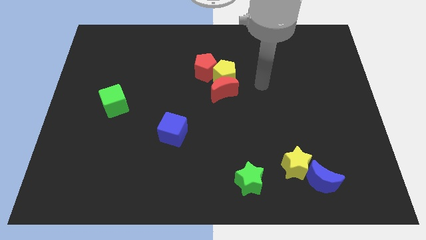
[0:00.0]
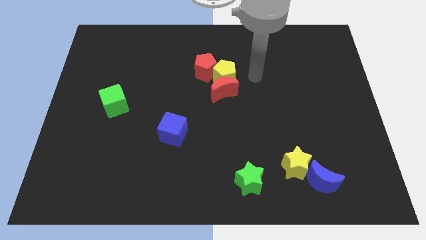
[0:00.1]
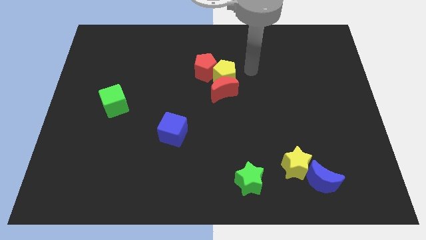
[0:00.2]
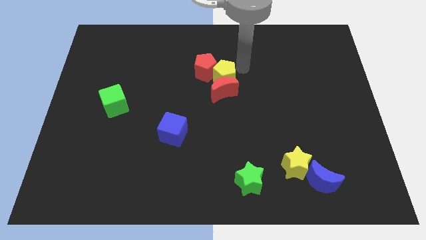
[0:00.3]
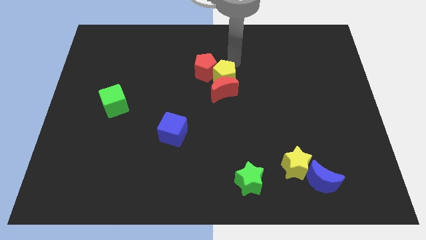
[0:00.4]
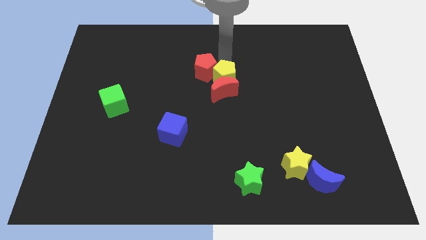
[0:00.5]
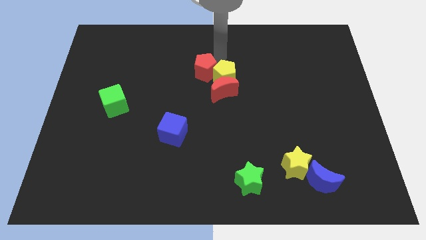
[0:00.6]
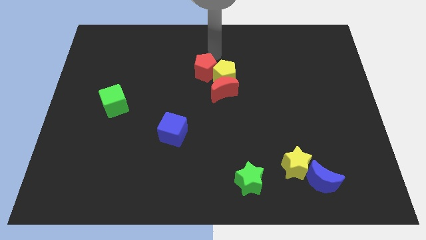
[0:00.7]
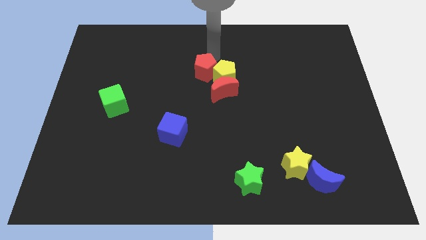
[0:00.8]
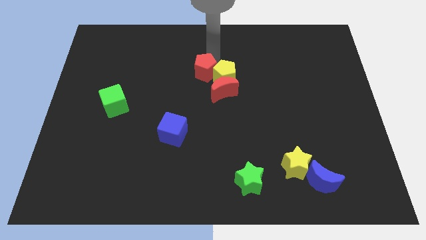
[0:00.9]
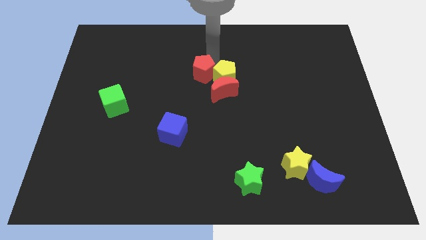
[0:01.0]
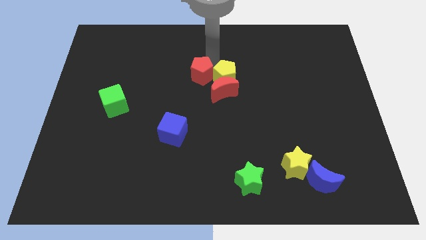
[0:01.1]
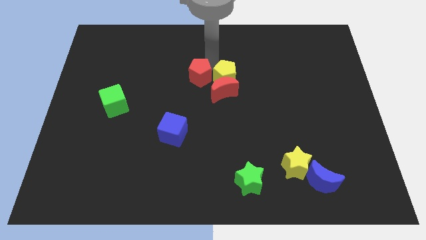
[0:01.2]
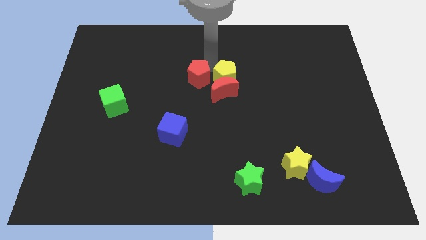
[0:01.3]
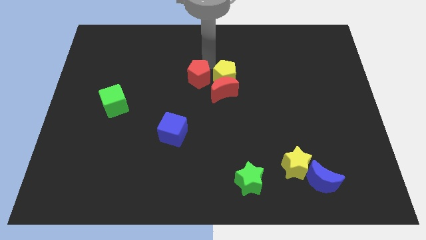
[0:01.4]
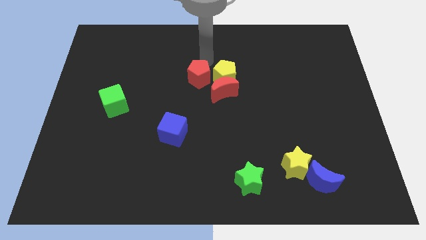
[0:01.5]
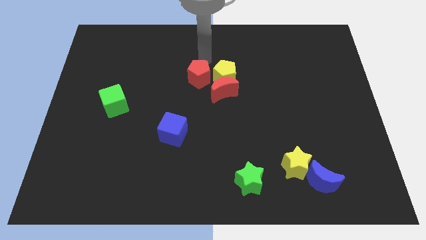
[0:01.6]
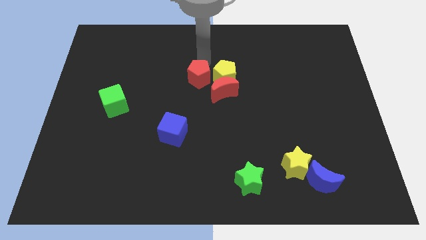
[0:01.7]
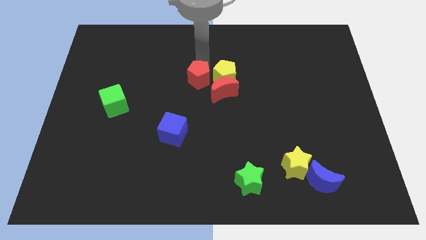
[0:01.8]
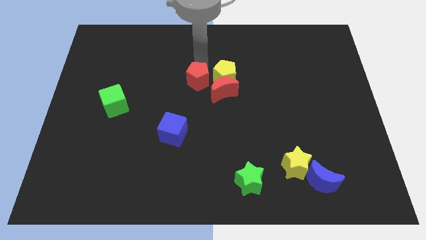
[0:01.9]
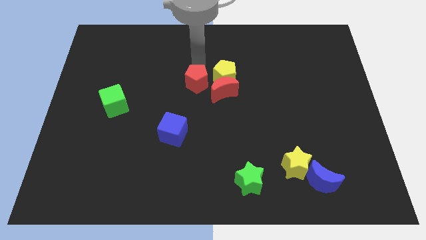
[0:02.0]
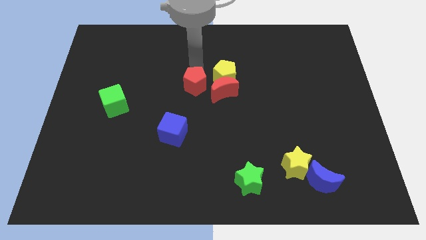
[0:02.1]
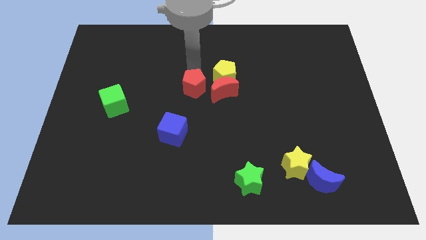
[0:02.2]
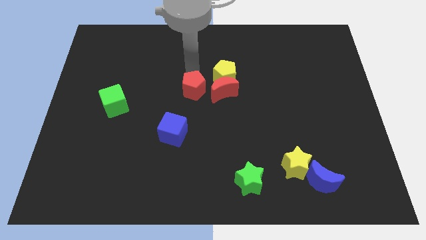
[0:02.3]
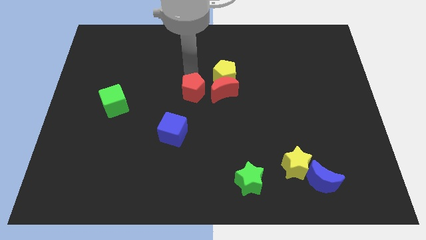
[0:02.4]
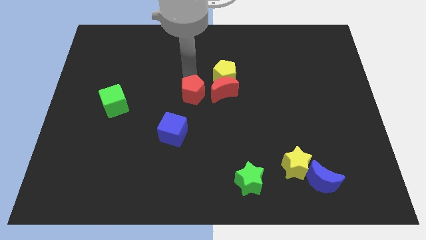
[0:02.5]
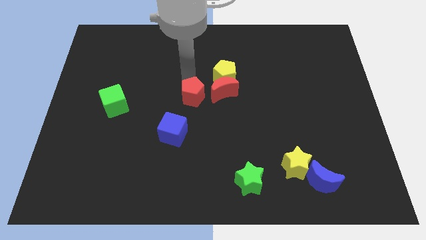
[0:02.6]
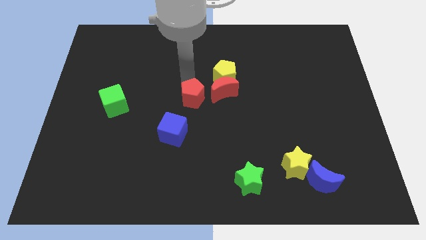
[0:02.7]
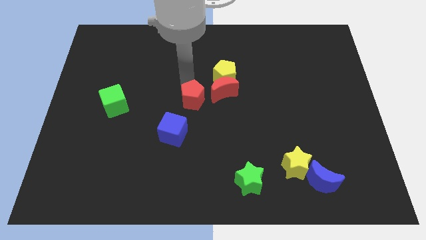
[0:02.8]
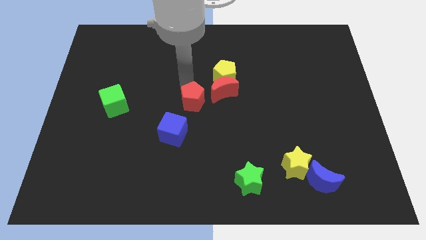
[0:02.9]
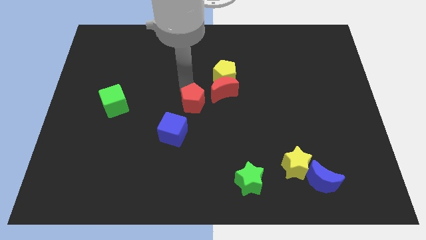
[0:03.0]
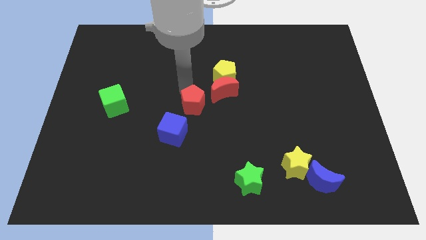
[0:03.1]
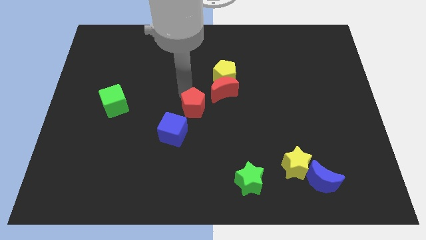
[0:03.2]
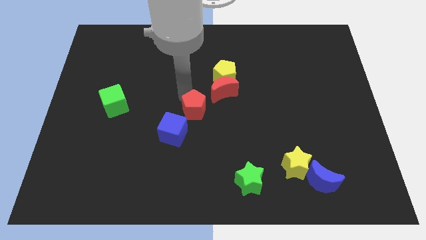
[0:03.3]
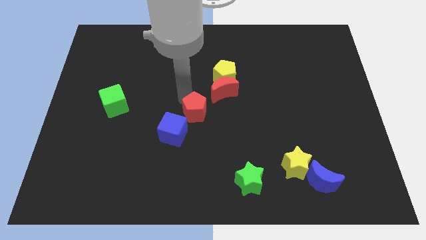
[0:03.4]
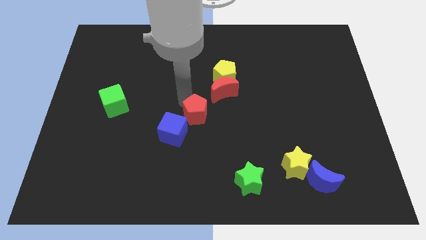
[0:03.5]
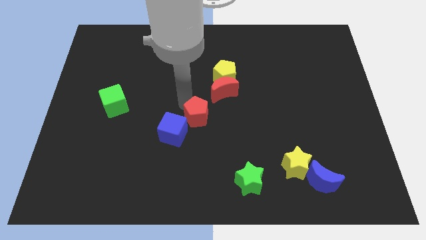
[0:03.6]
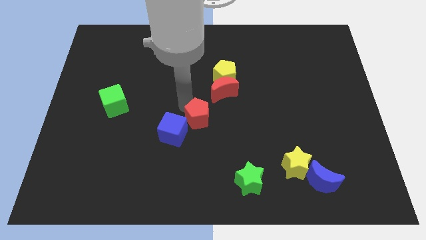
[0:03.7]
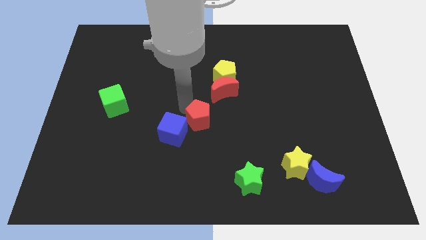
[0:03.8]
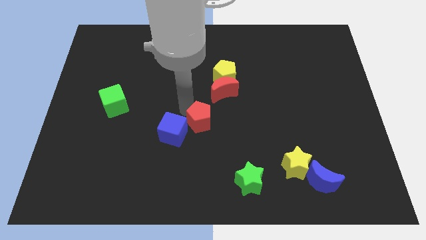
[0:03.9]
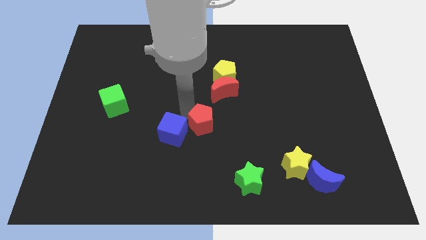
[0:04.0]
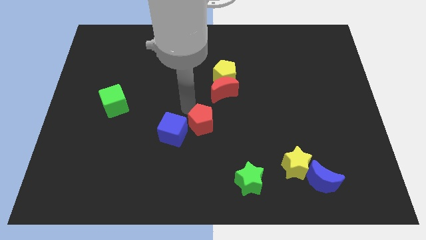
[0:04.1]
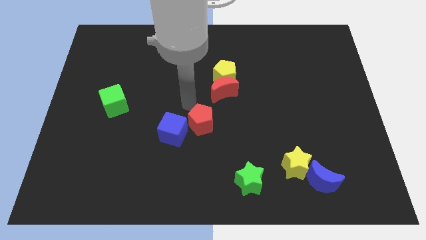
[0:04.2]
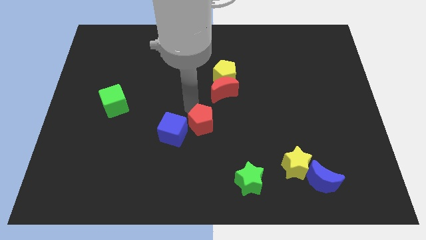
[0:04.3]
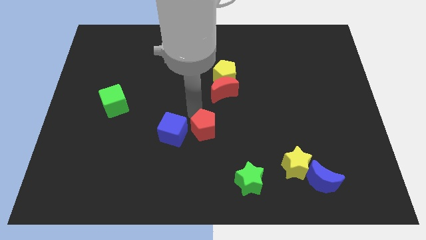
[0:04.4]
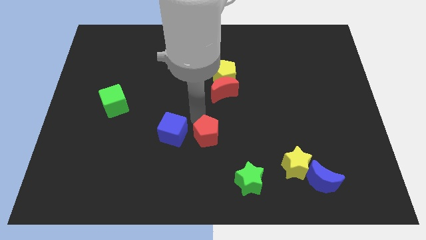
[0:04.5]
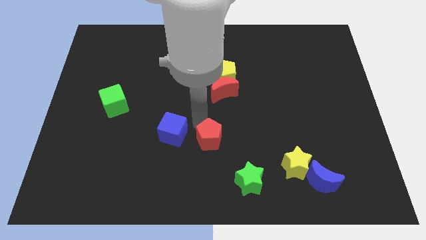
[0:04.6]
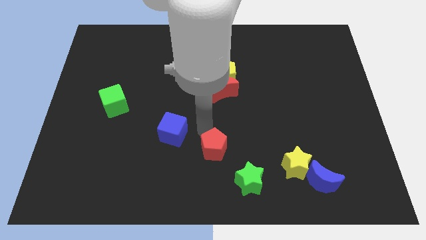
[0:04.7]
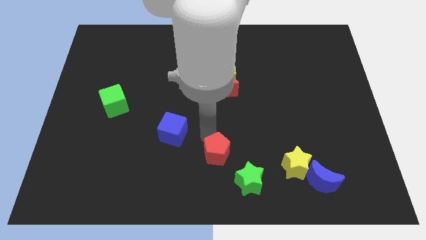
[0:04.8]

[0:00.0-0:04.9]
slide the red pentagon to the bottom

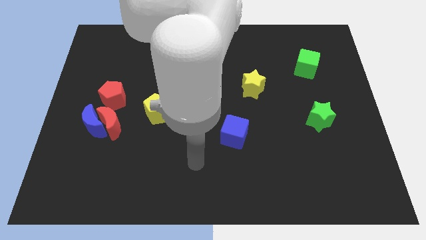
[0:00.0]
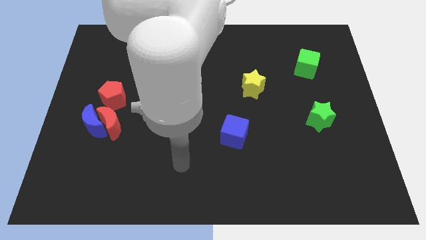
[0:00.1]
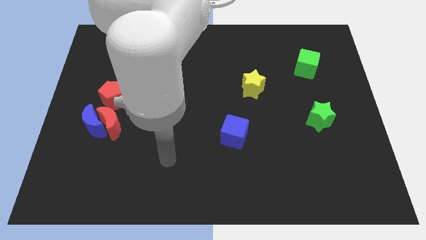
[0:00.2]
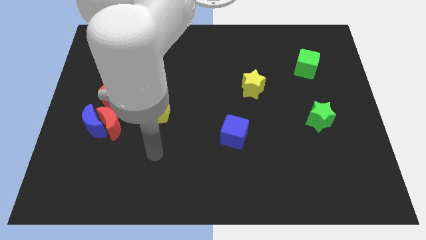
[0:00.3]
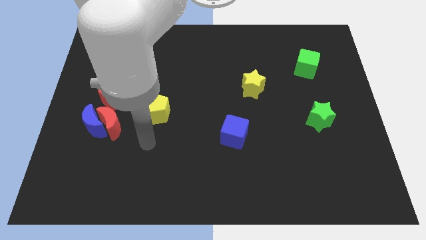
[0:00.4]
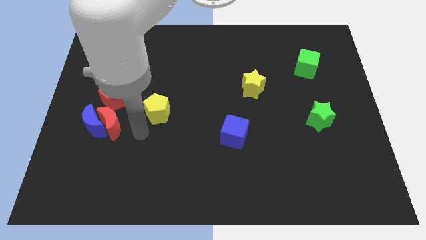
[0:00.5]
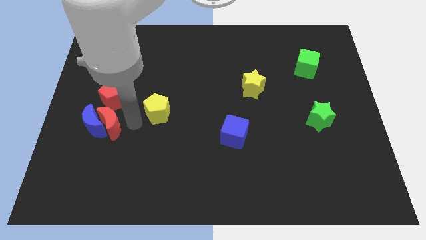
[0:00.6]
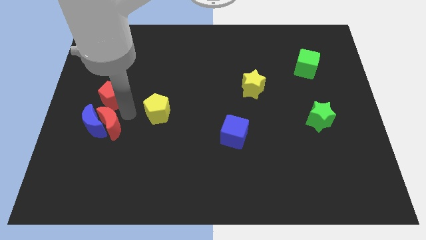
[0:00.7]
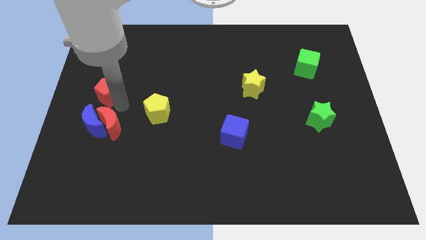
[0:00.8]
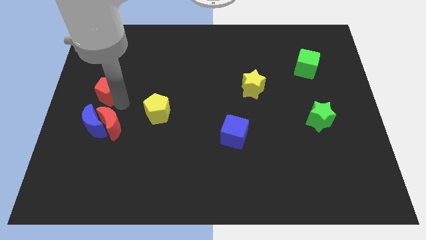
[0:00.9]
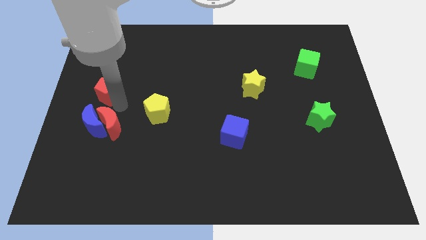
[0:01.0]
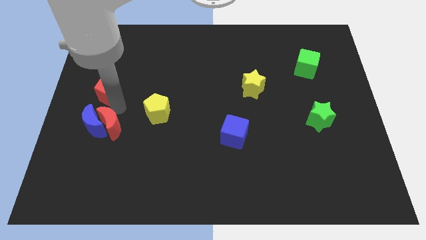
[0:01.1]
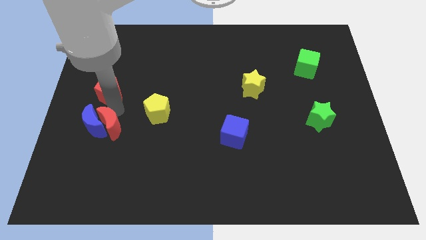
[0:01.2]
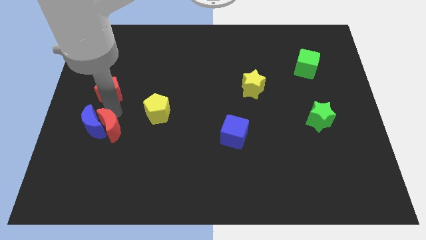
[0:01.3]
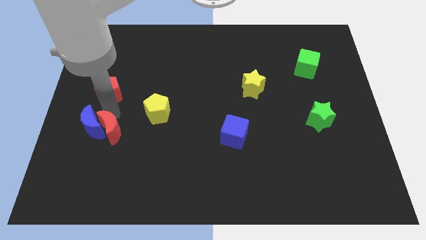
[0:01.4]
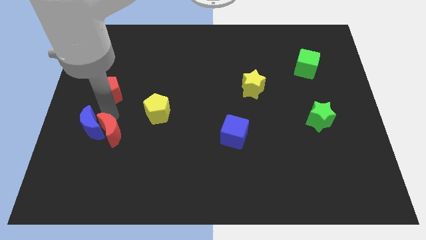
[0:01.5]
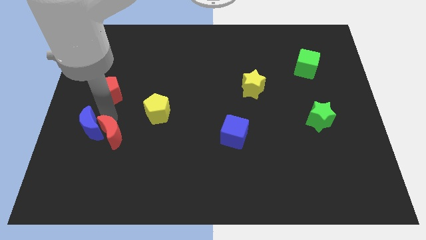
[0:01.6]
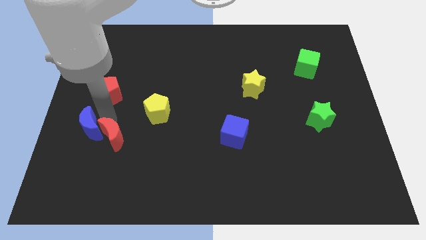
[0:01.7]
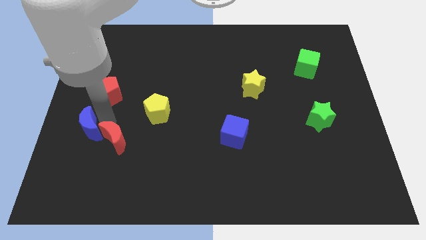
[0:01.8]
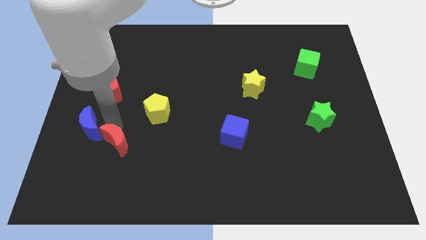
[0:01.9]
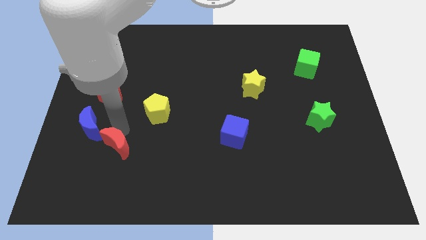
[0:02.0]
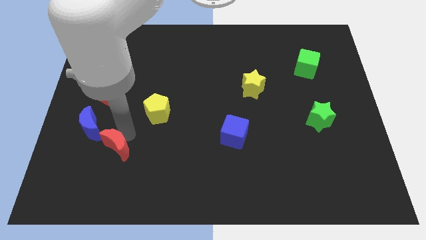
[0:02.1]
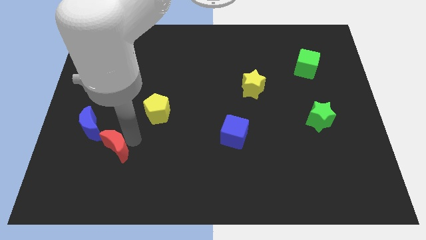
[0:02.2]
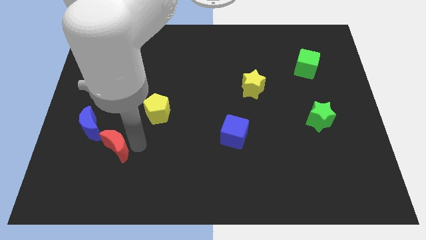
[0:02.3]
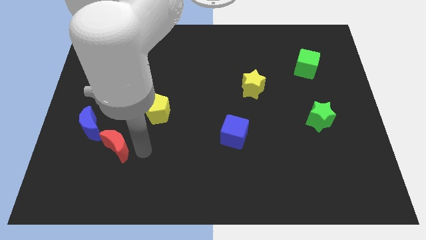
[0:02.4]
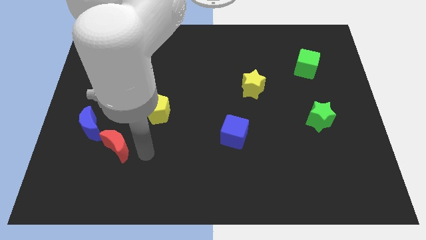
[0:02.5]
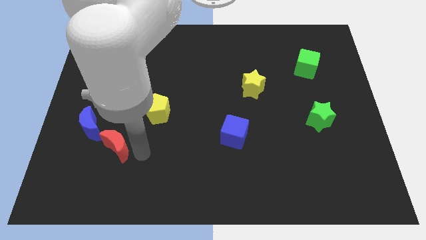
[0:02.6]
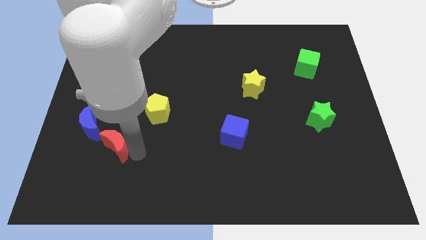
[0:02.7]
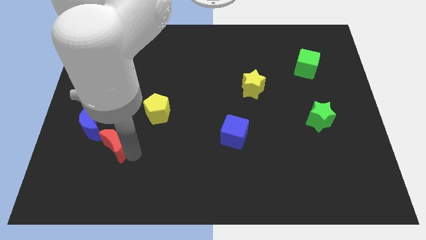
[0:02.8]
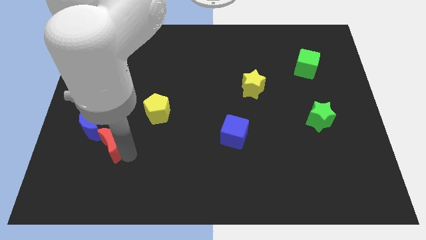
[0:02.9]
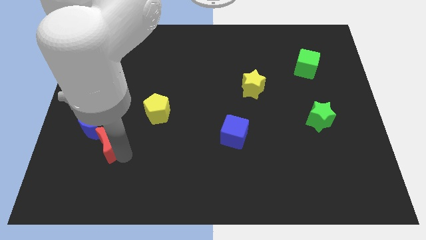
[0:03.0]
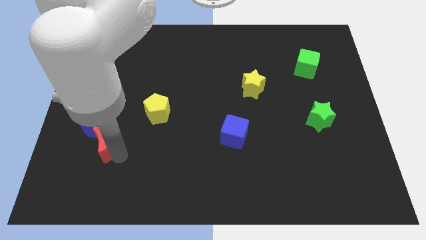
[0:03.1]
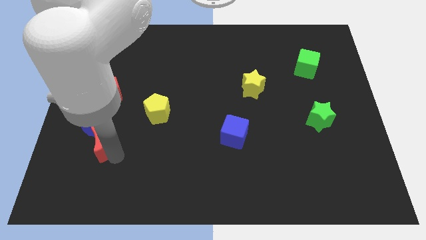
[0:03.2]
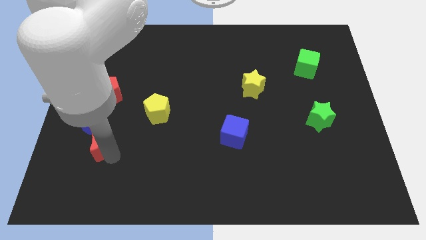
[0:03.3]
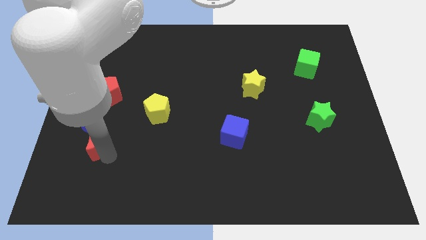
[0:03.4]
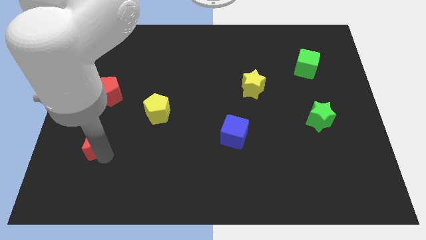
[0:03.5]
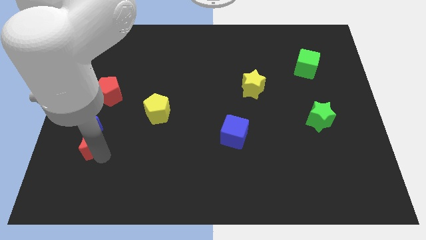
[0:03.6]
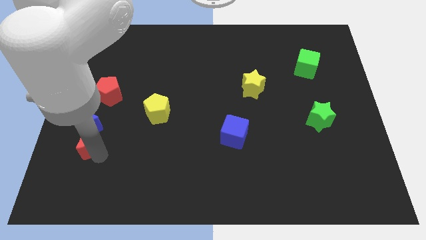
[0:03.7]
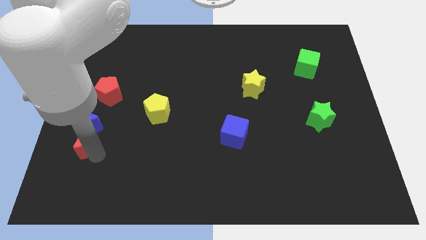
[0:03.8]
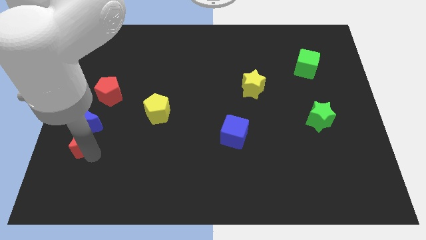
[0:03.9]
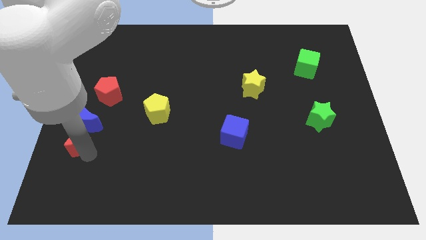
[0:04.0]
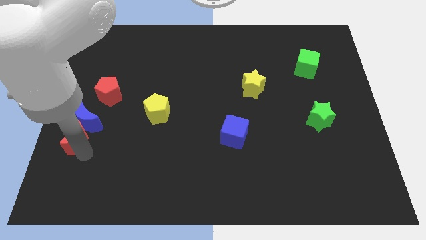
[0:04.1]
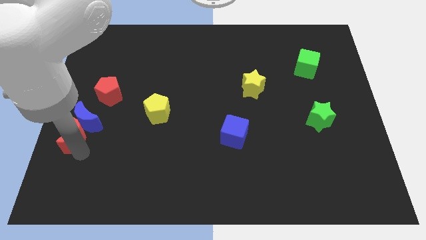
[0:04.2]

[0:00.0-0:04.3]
put the red moon to the left side
